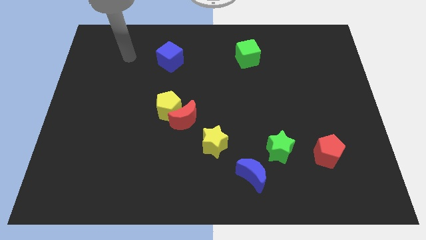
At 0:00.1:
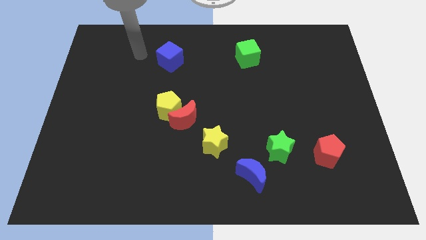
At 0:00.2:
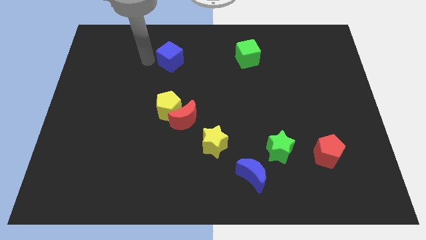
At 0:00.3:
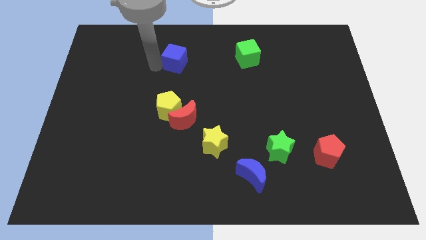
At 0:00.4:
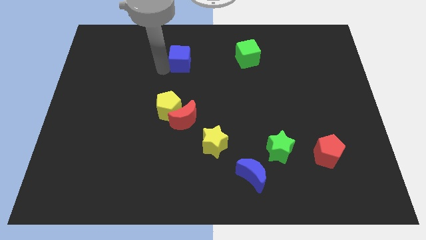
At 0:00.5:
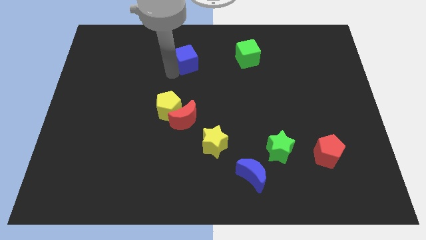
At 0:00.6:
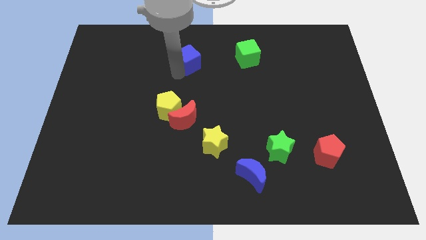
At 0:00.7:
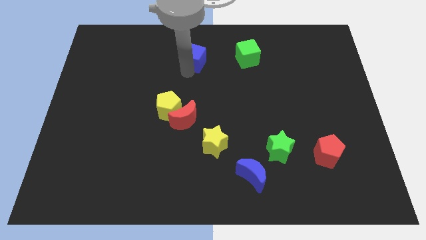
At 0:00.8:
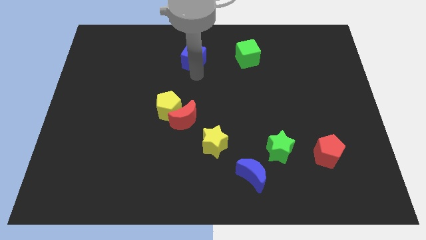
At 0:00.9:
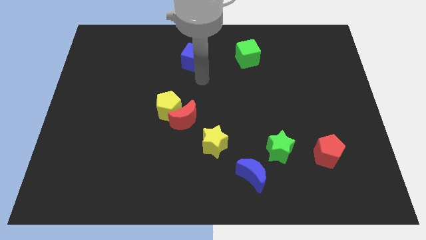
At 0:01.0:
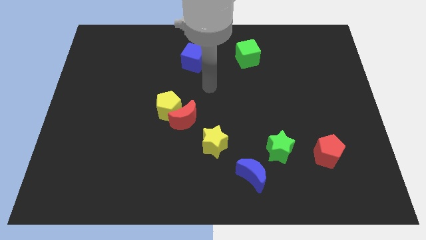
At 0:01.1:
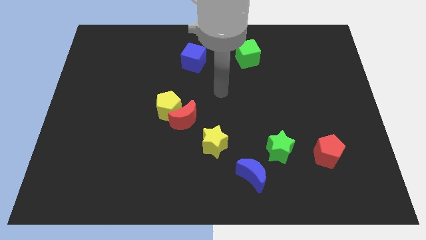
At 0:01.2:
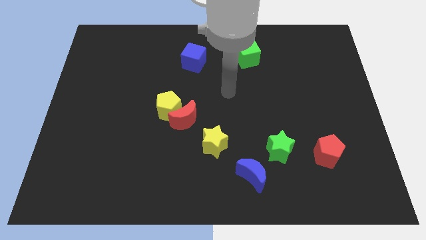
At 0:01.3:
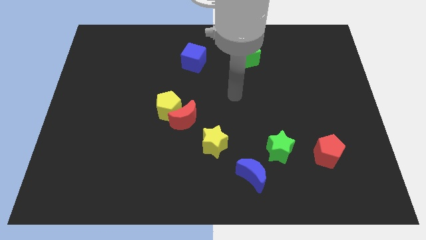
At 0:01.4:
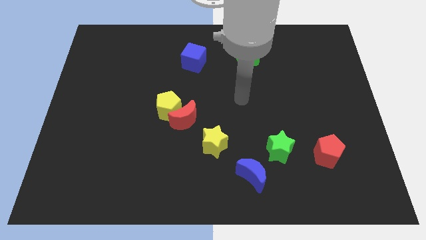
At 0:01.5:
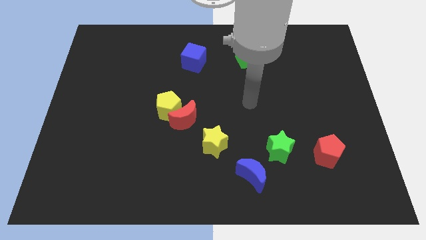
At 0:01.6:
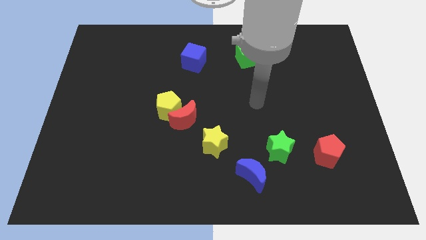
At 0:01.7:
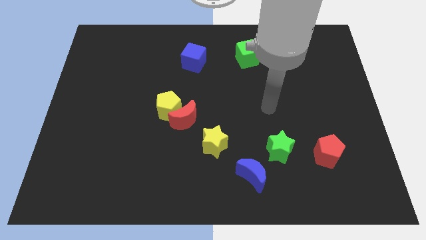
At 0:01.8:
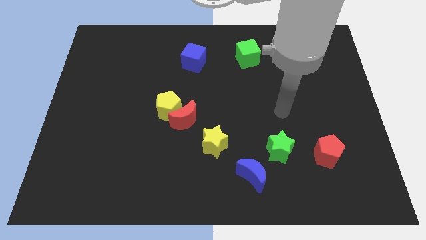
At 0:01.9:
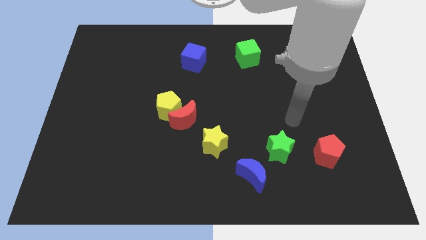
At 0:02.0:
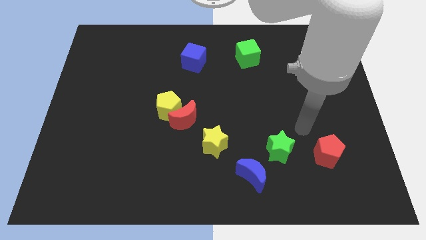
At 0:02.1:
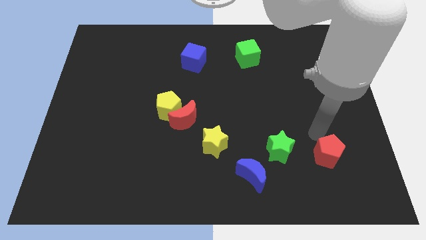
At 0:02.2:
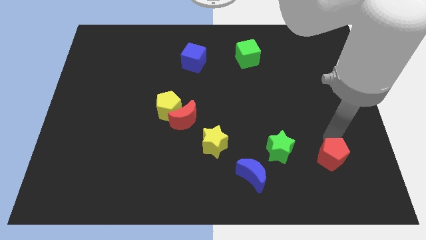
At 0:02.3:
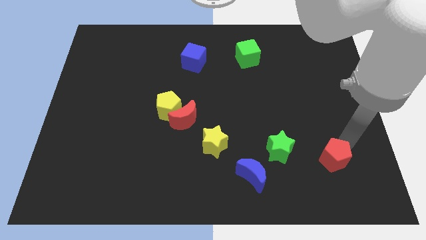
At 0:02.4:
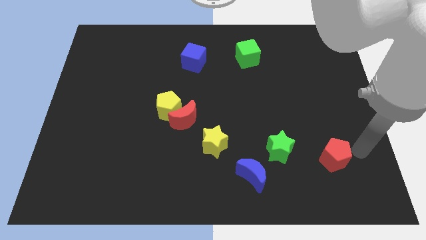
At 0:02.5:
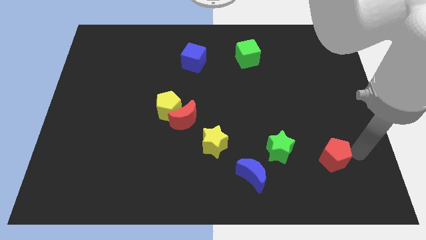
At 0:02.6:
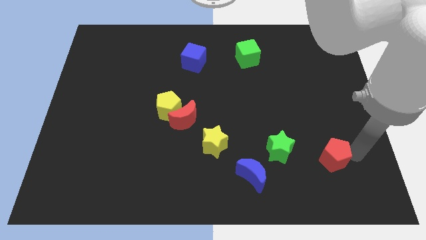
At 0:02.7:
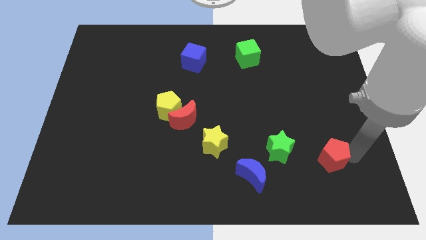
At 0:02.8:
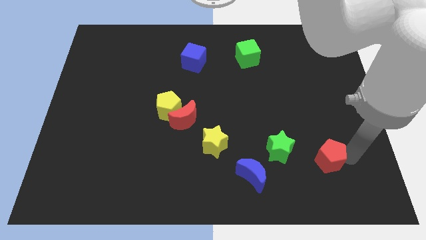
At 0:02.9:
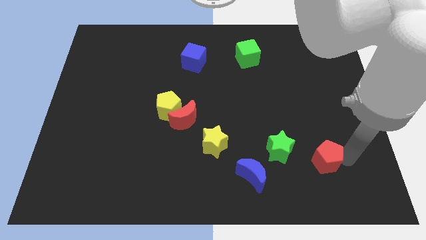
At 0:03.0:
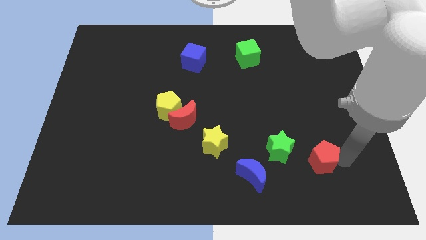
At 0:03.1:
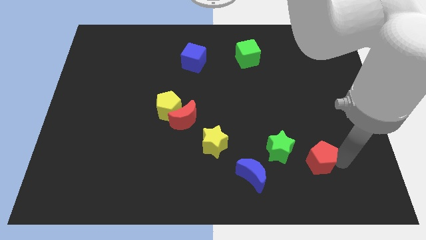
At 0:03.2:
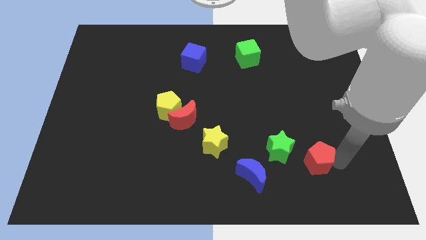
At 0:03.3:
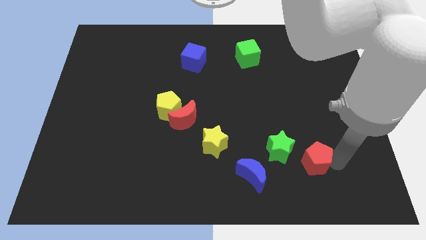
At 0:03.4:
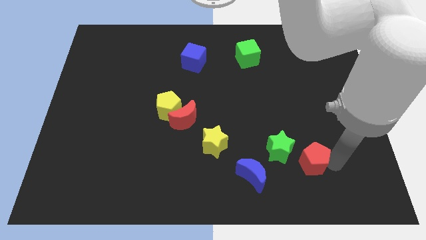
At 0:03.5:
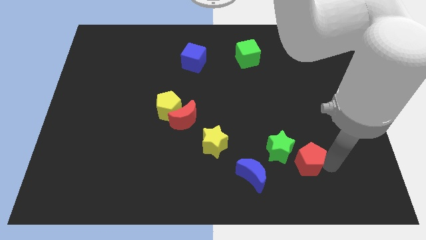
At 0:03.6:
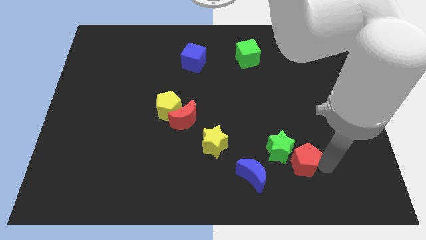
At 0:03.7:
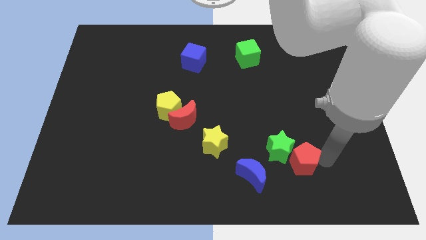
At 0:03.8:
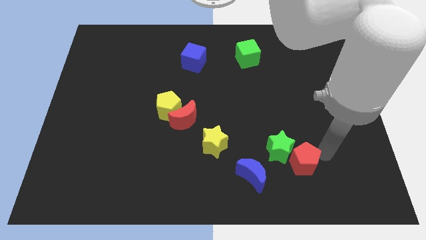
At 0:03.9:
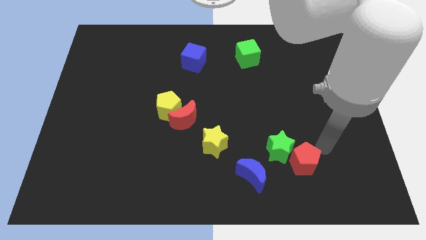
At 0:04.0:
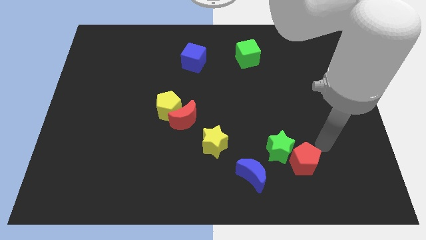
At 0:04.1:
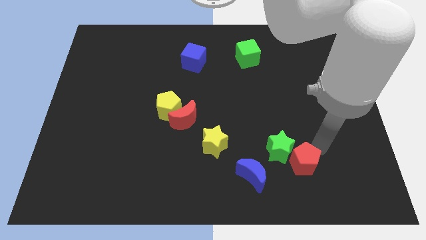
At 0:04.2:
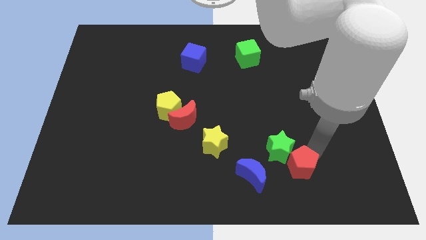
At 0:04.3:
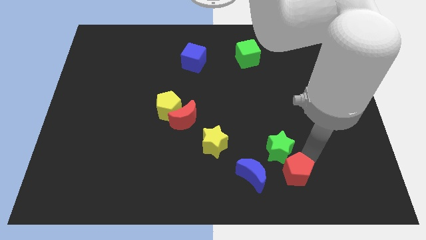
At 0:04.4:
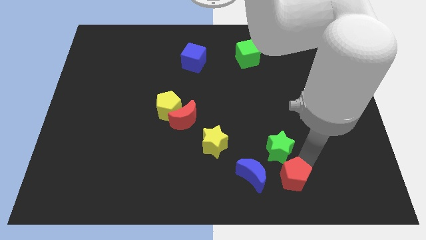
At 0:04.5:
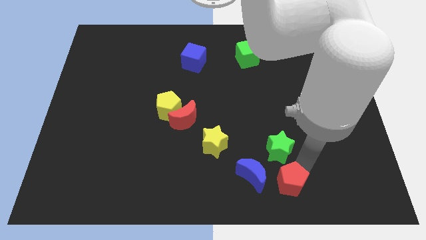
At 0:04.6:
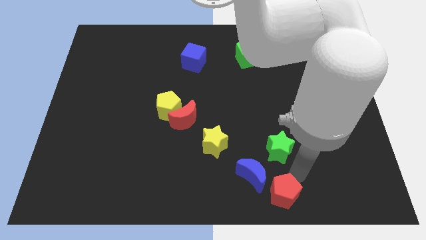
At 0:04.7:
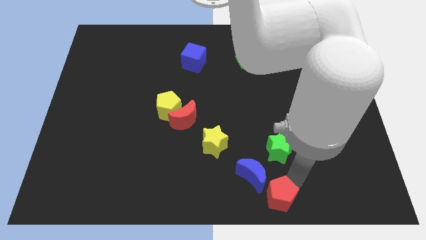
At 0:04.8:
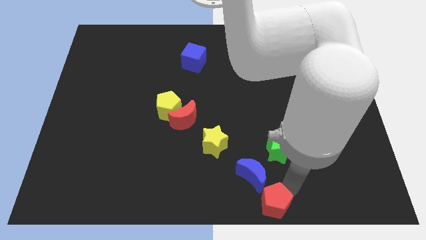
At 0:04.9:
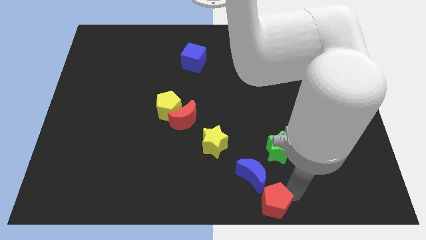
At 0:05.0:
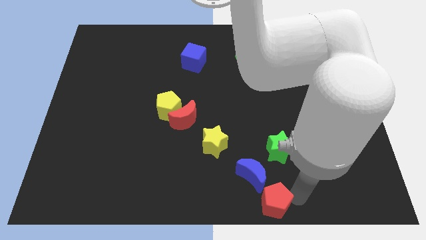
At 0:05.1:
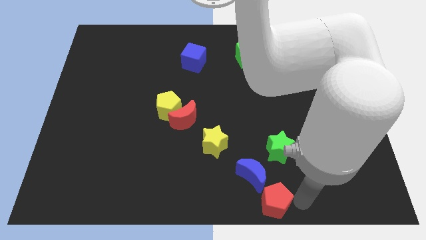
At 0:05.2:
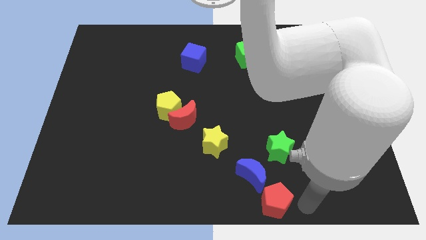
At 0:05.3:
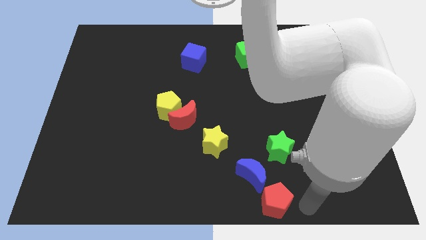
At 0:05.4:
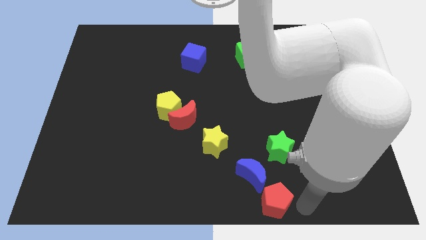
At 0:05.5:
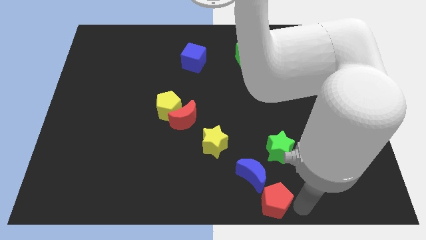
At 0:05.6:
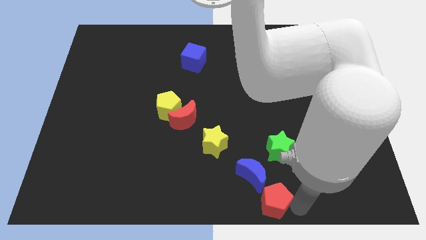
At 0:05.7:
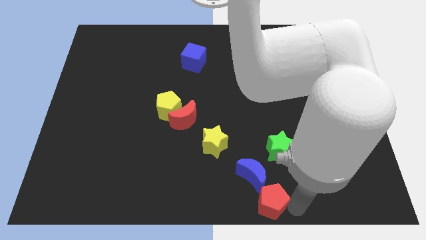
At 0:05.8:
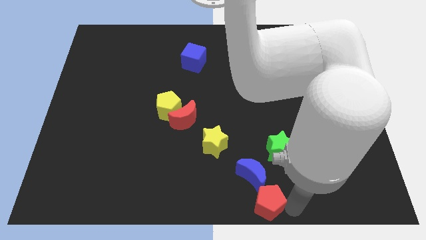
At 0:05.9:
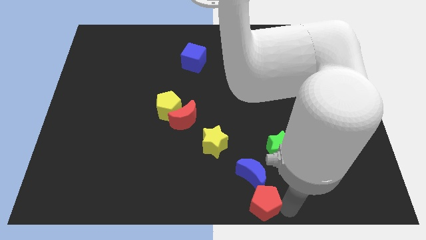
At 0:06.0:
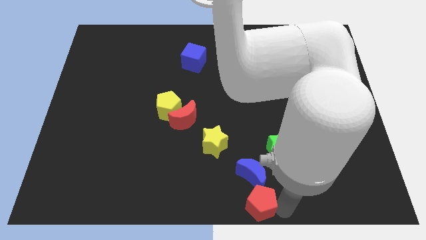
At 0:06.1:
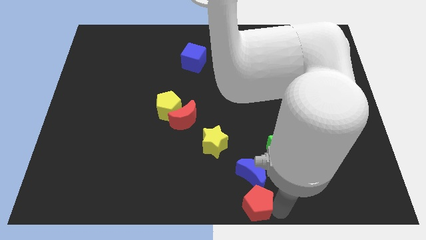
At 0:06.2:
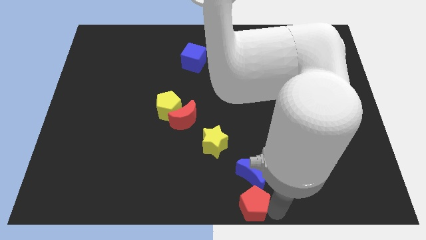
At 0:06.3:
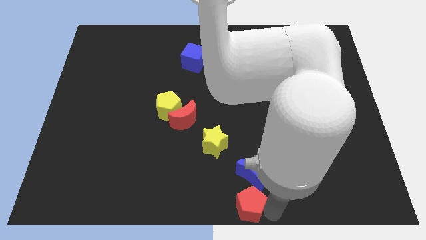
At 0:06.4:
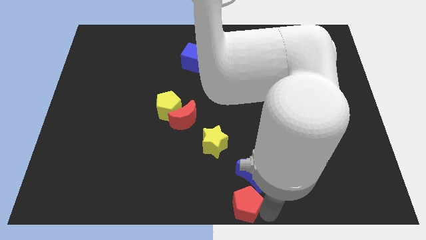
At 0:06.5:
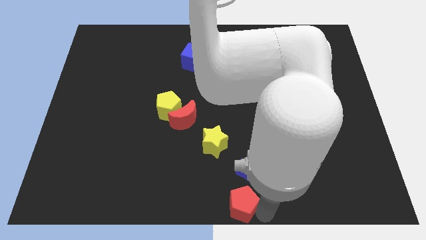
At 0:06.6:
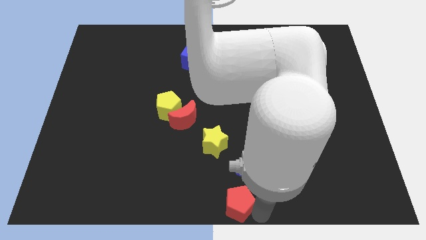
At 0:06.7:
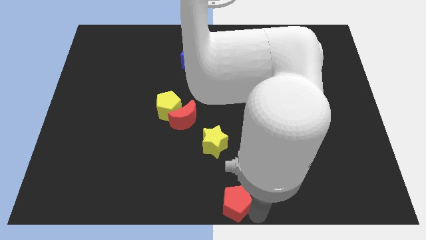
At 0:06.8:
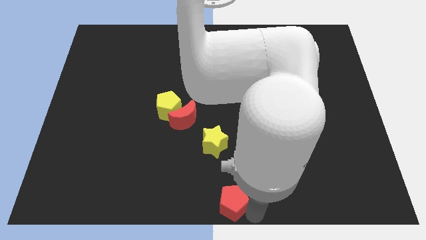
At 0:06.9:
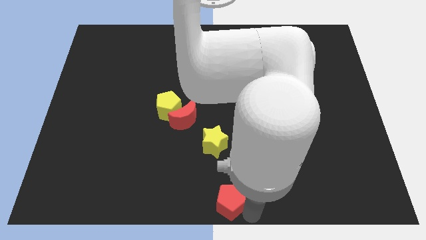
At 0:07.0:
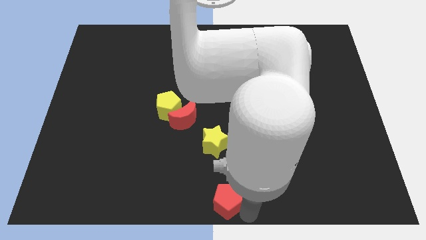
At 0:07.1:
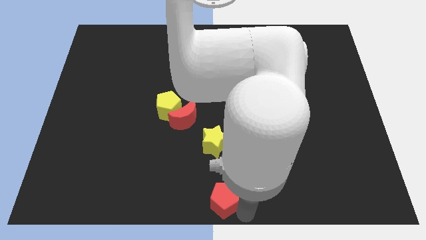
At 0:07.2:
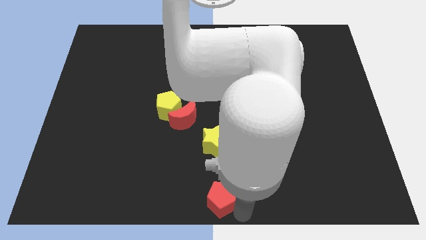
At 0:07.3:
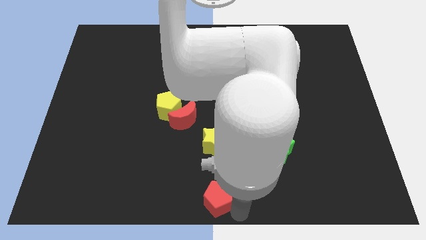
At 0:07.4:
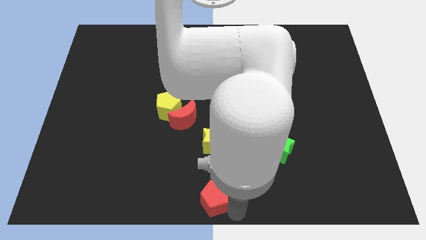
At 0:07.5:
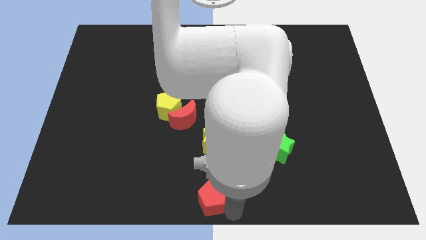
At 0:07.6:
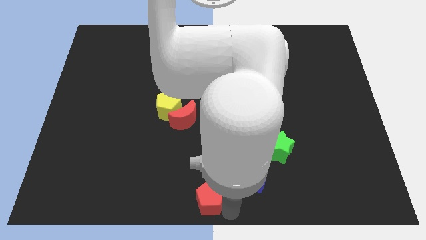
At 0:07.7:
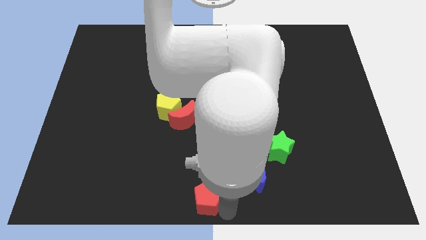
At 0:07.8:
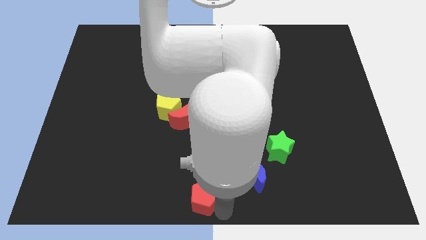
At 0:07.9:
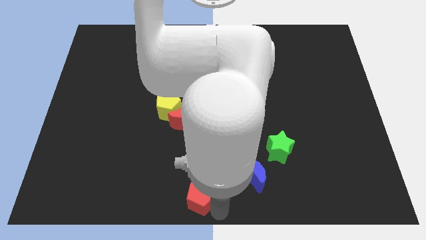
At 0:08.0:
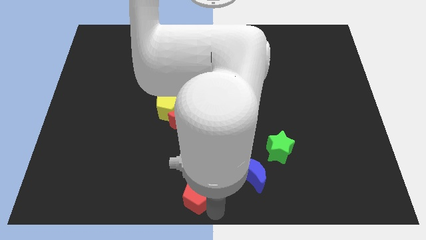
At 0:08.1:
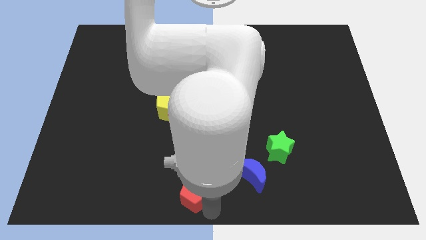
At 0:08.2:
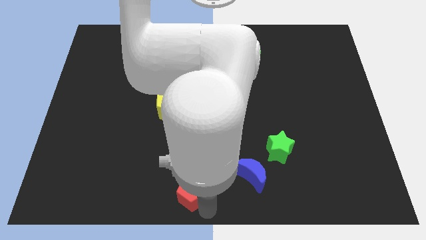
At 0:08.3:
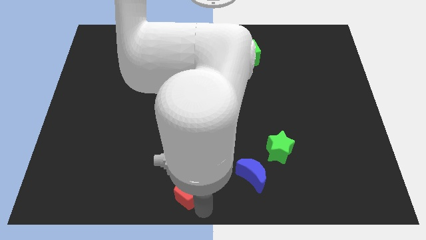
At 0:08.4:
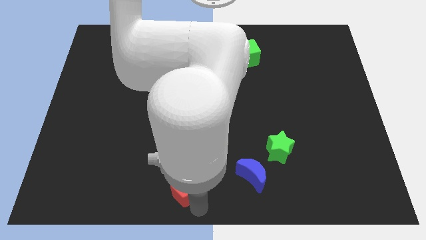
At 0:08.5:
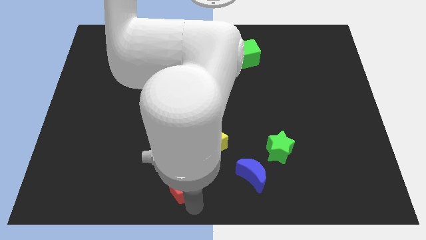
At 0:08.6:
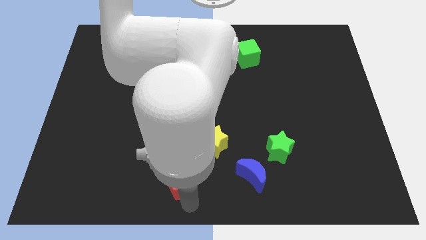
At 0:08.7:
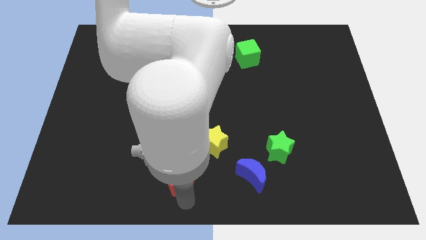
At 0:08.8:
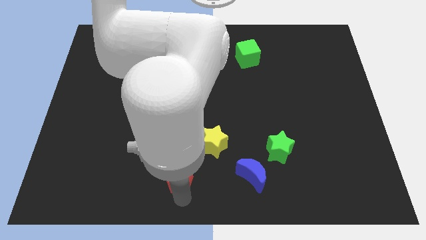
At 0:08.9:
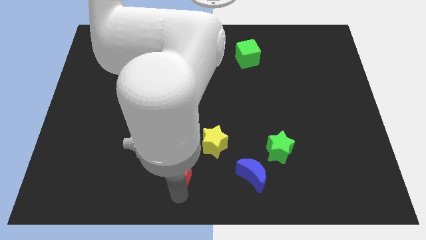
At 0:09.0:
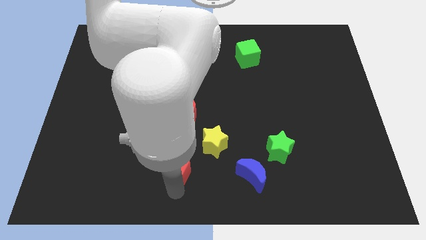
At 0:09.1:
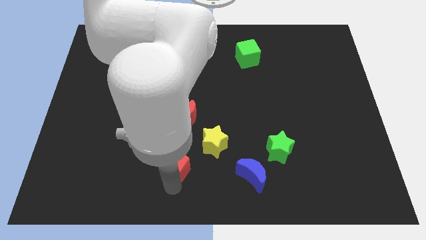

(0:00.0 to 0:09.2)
put the red pentagon to the bottom of the yellow pentagon
